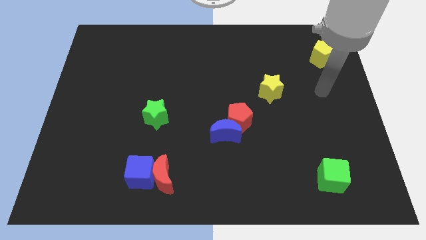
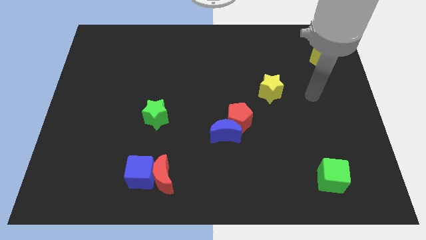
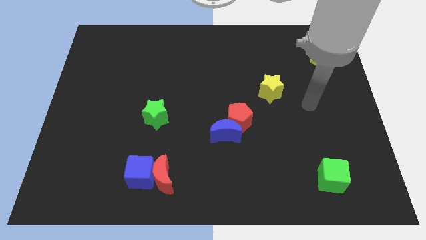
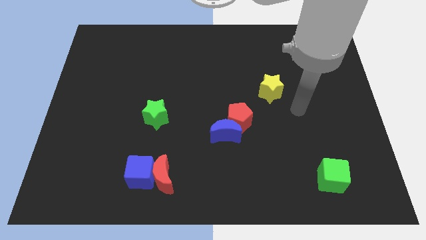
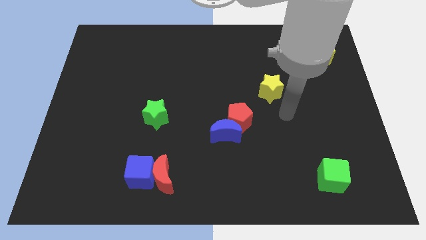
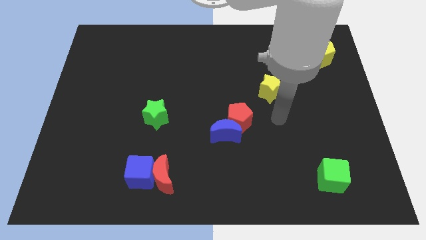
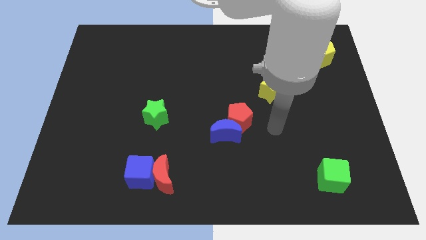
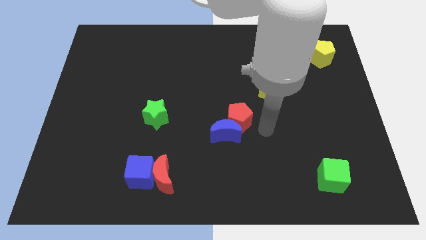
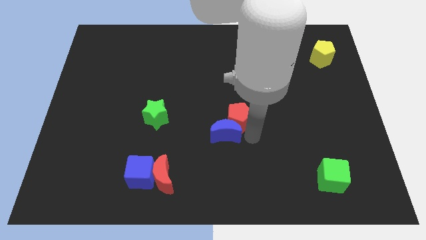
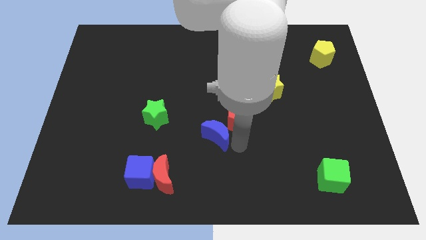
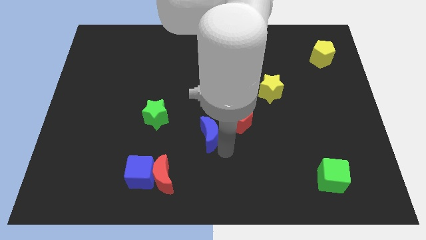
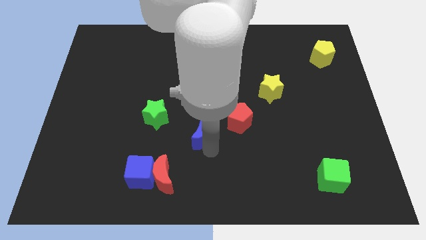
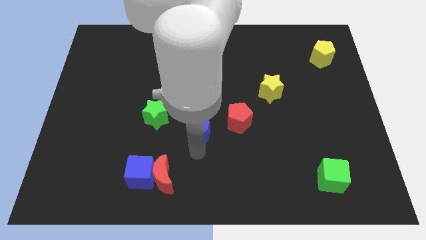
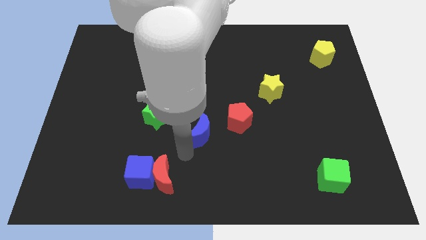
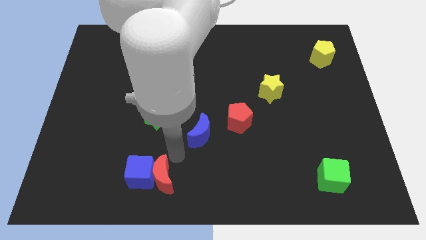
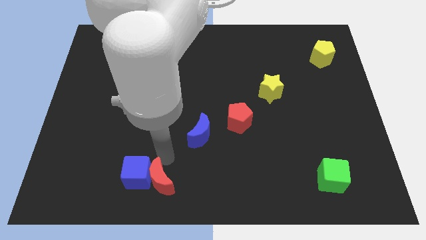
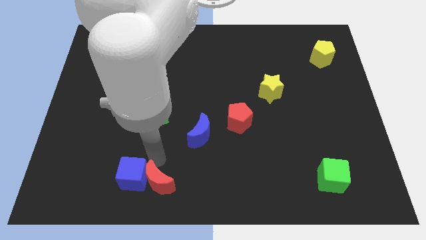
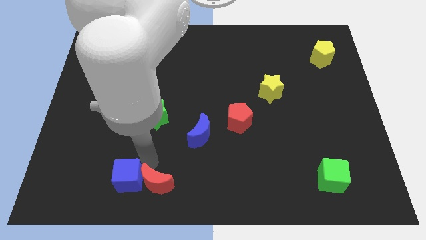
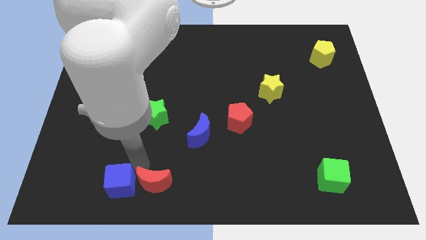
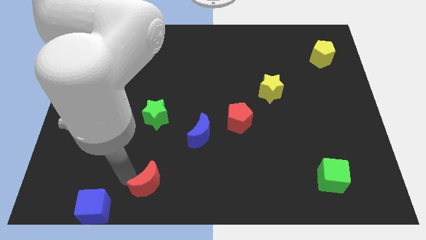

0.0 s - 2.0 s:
separate the red moon from the blue cube

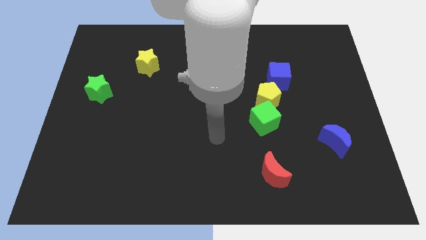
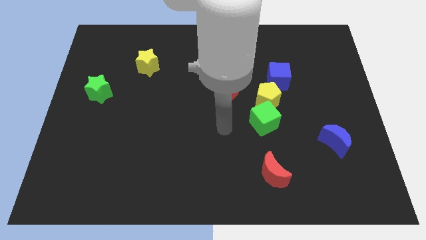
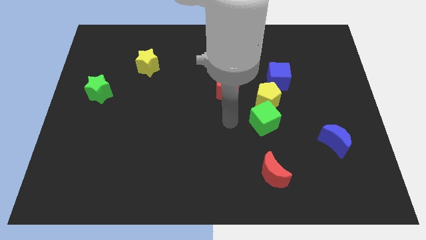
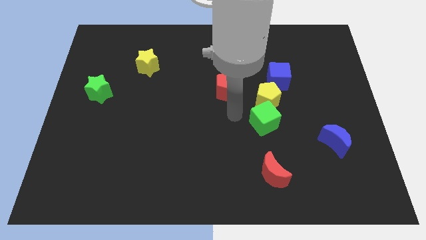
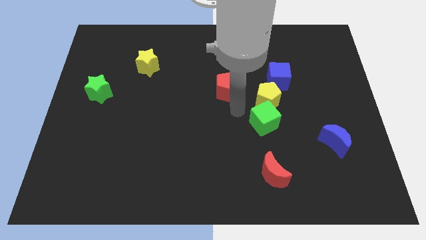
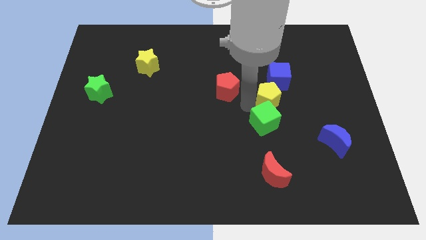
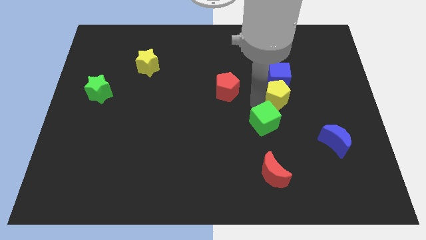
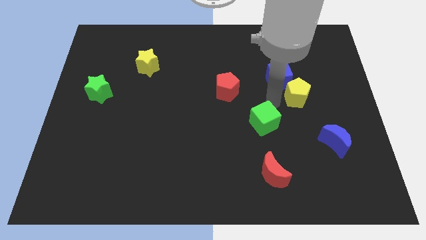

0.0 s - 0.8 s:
pull the green cube apart from the yellow pentagon

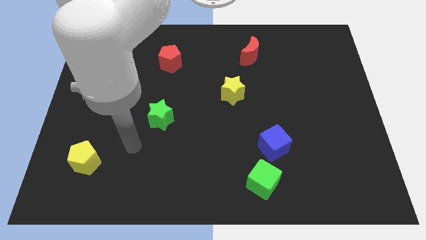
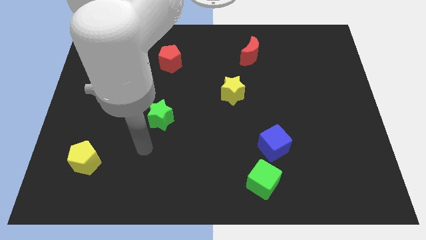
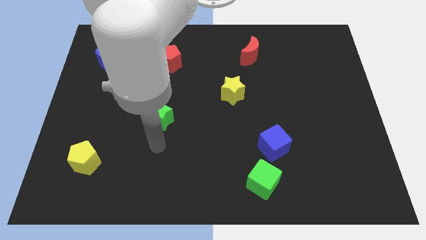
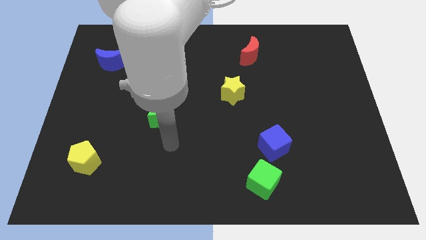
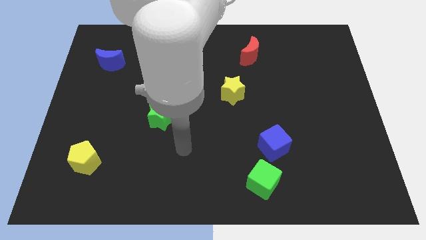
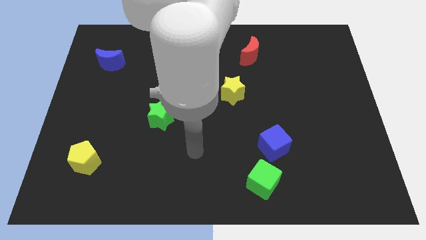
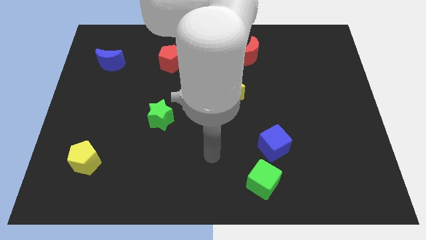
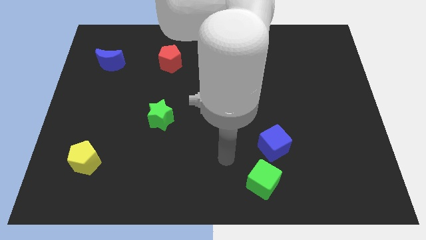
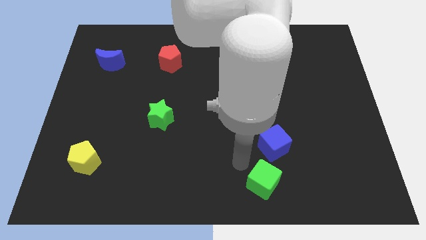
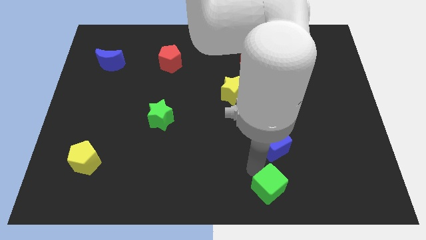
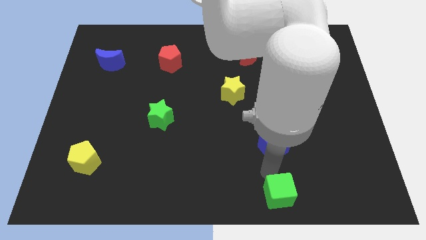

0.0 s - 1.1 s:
pull the blue cube apart from the green cube

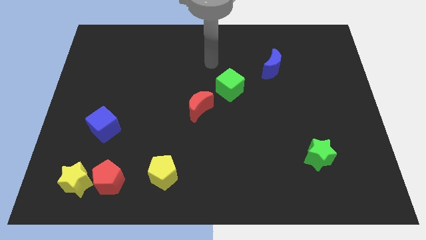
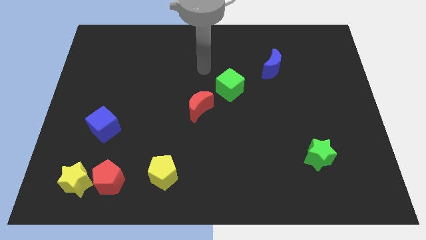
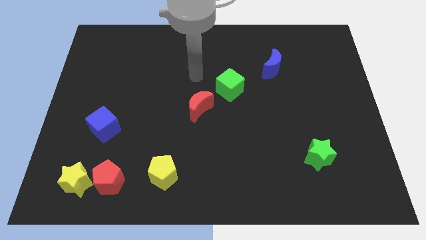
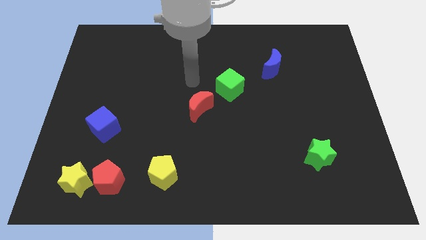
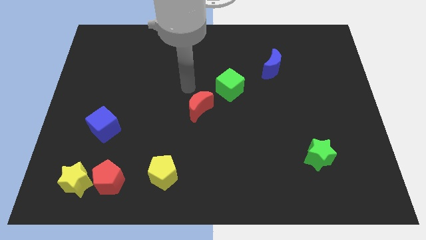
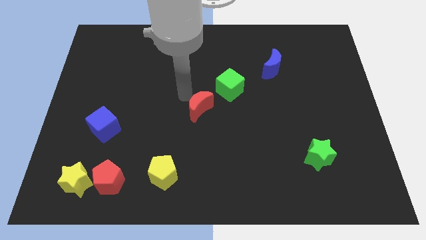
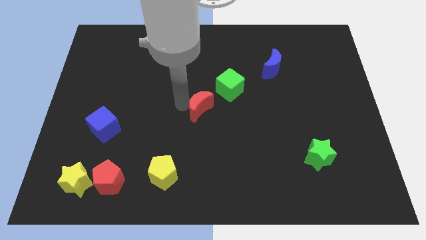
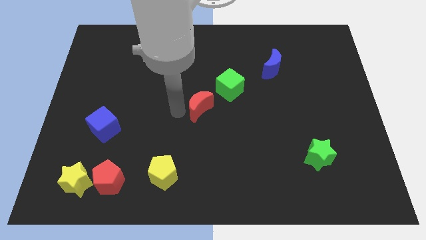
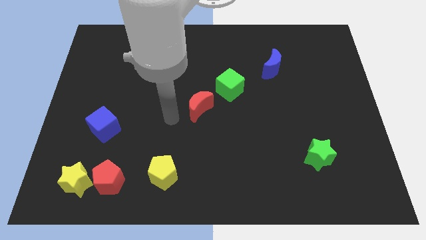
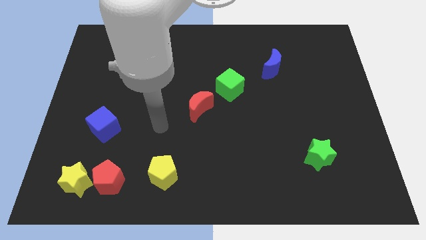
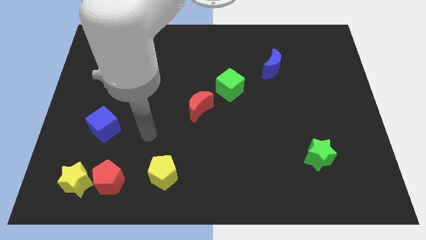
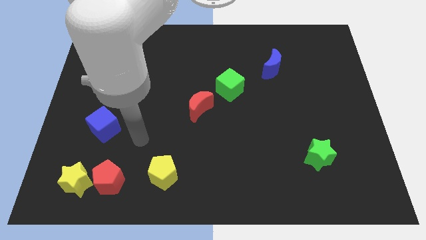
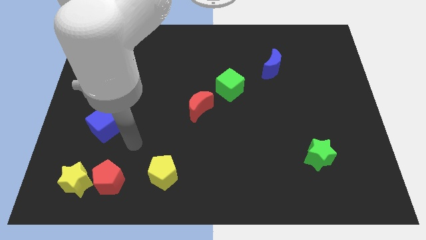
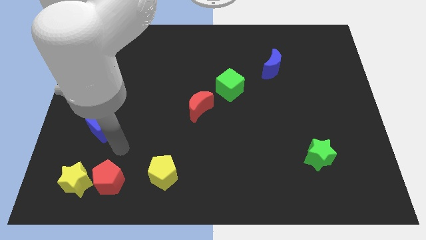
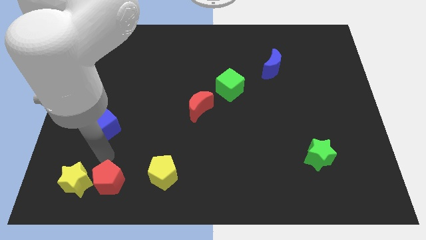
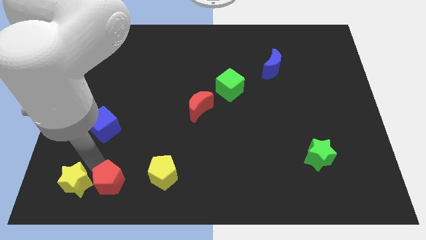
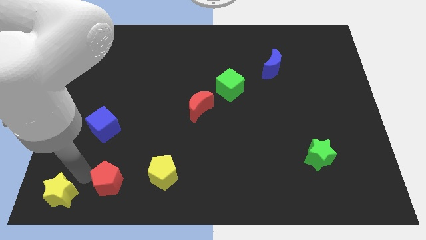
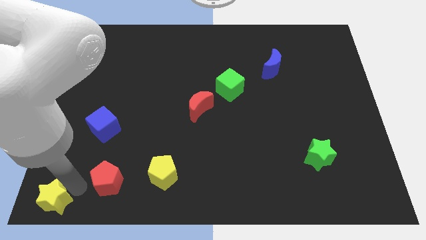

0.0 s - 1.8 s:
move the red pentagon away from the yellow star

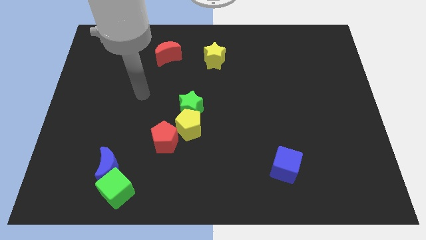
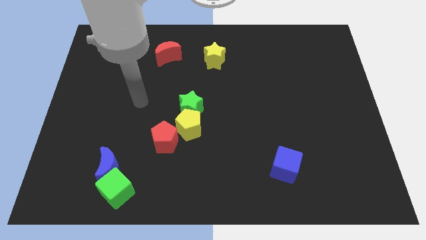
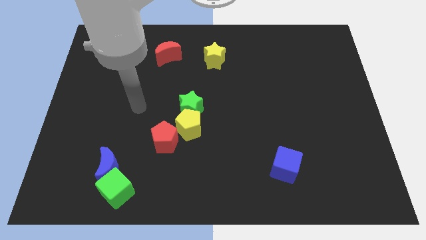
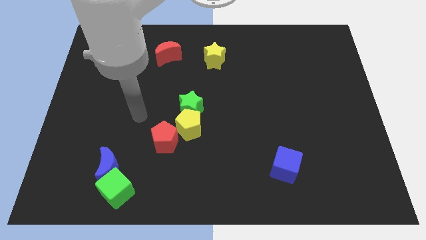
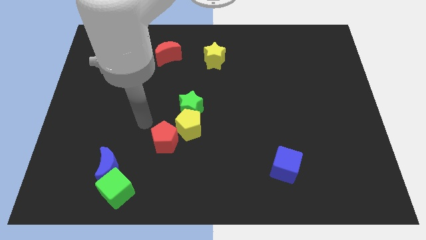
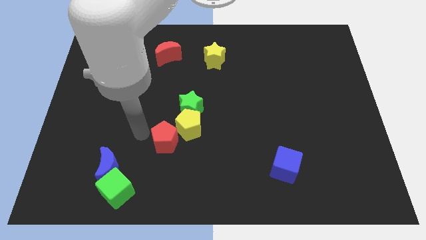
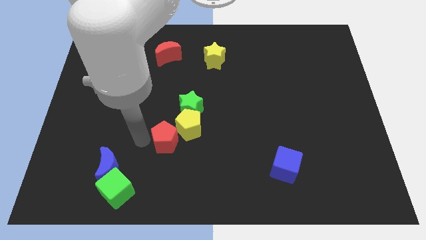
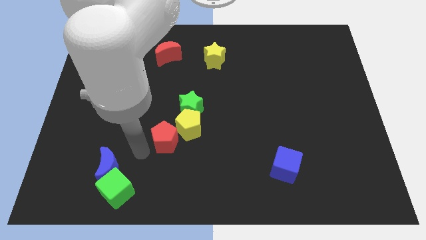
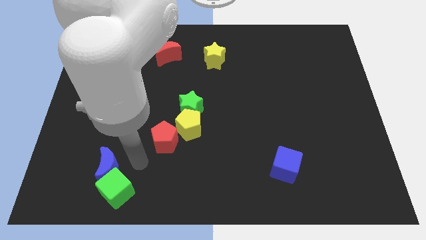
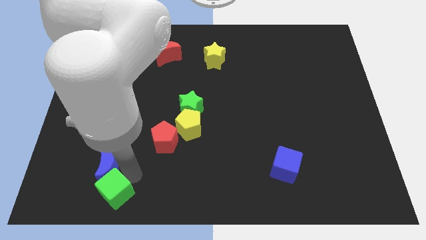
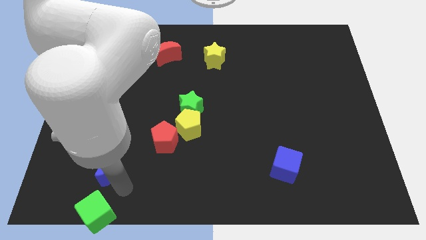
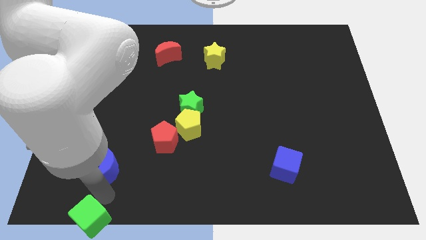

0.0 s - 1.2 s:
pull the blue moon apart from the green cube

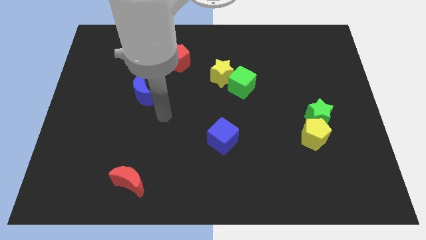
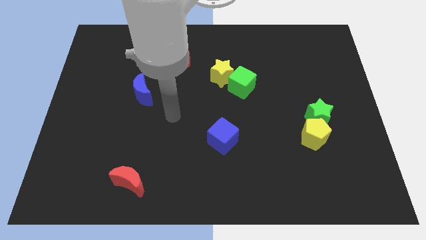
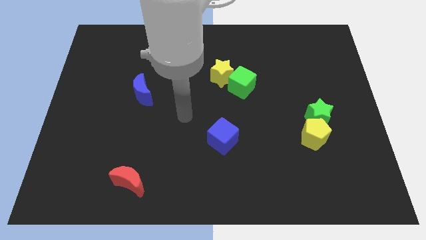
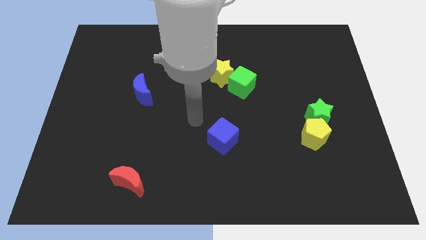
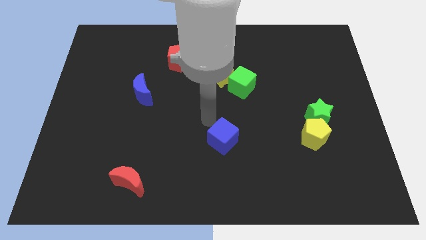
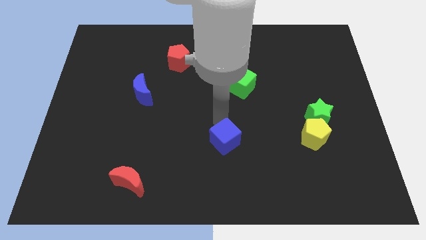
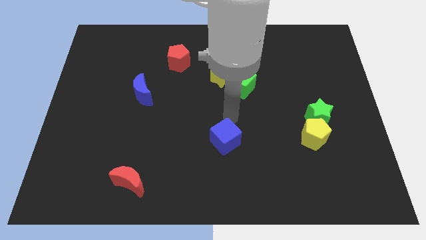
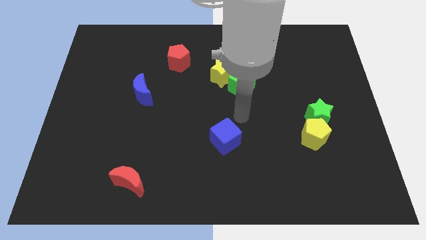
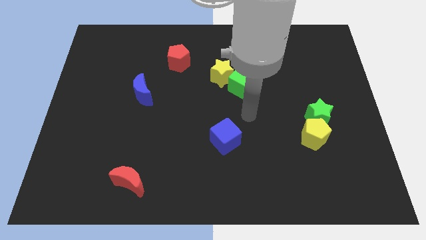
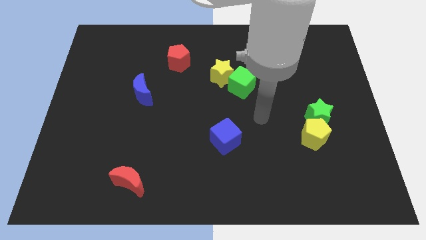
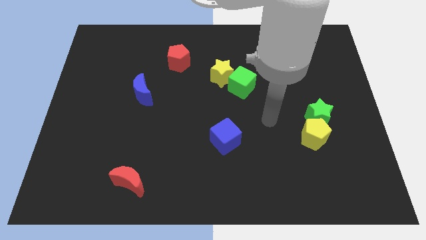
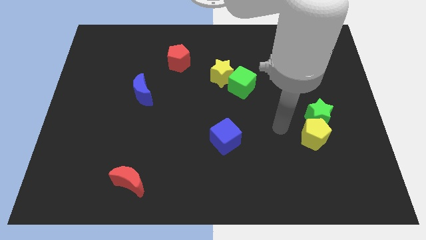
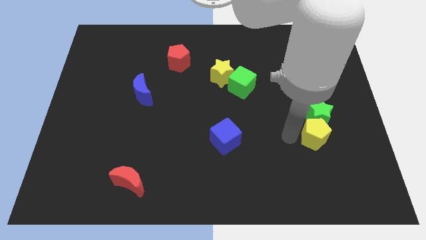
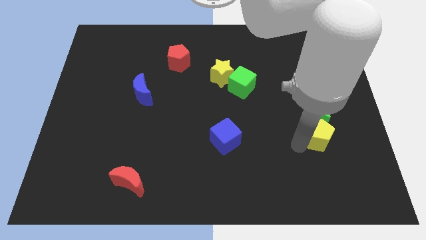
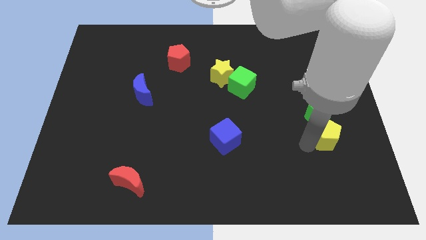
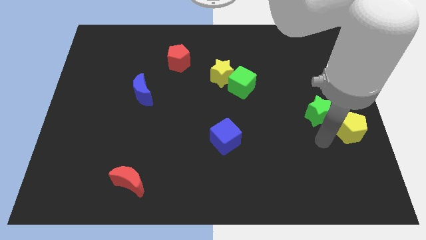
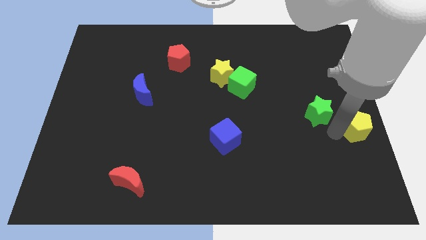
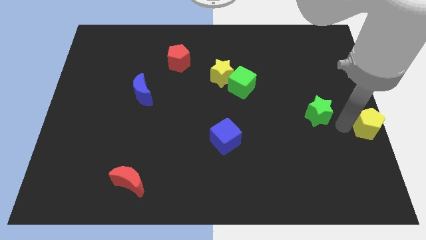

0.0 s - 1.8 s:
separate the green star from the yellow pentagon

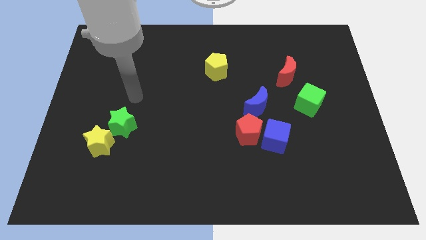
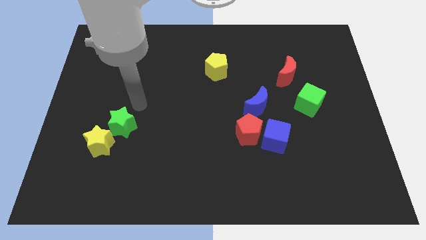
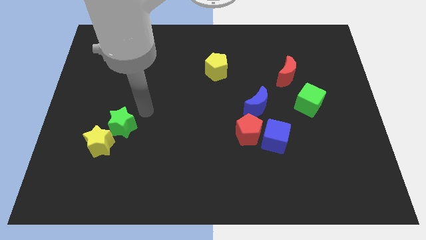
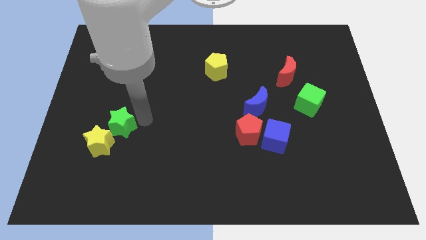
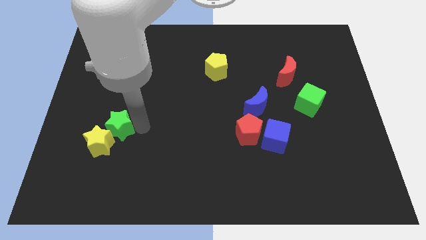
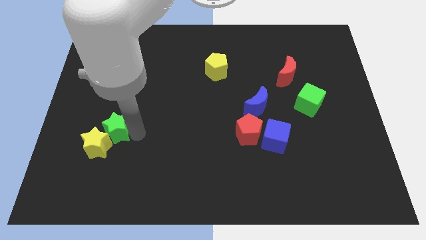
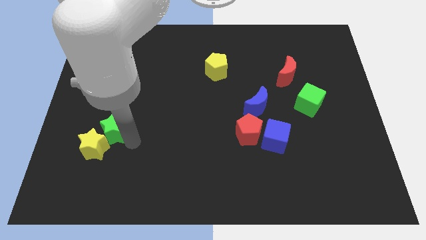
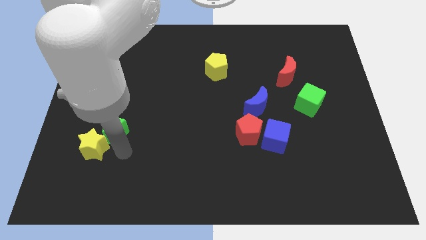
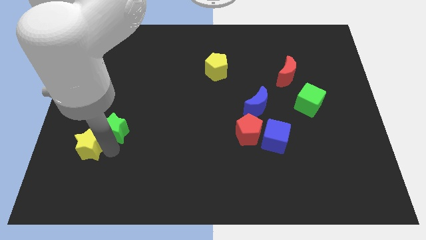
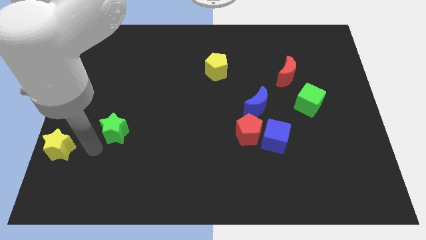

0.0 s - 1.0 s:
separate the green star from the yellow star
